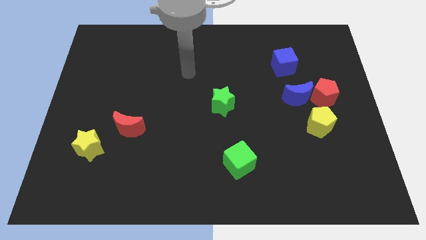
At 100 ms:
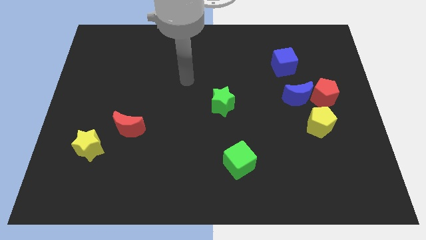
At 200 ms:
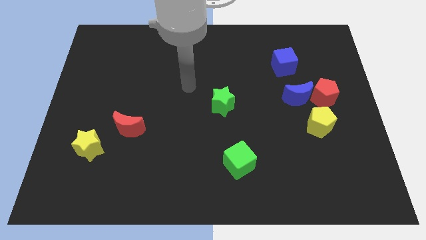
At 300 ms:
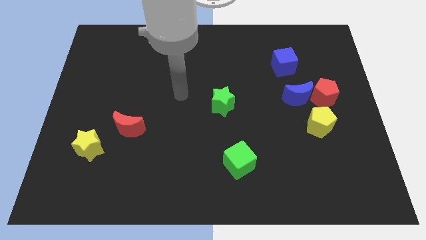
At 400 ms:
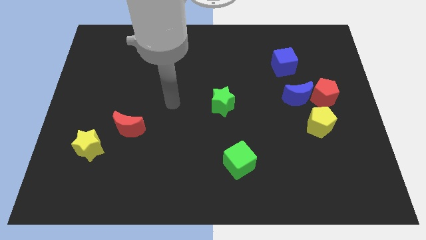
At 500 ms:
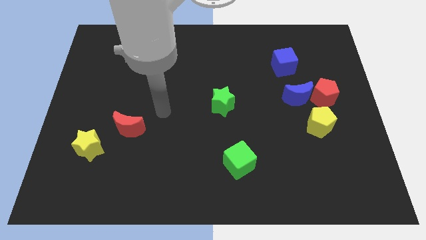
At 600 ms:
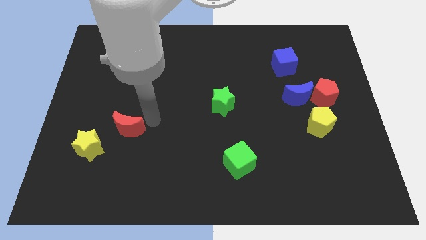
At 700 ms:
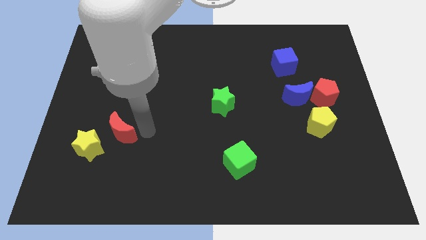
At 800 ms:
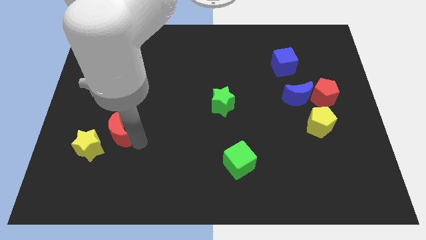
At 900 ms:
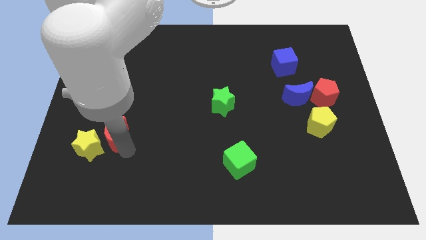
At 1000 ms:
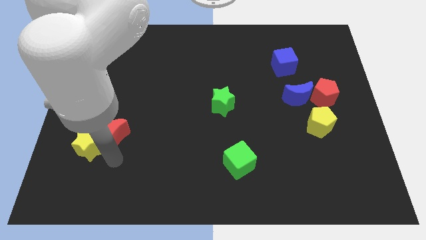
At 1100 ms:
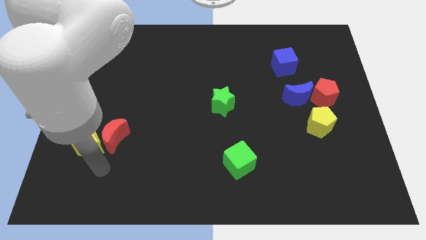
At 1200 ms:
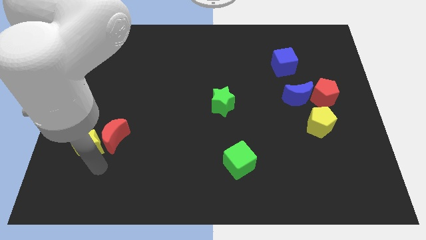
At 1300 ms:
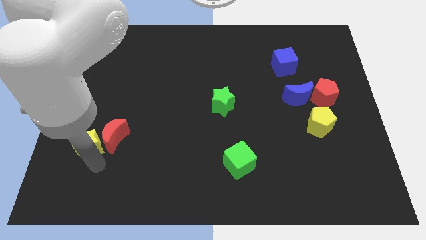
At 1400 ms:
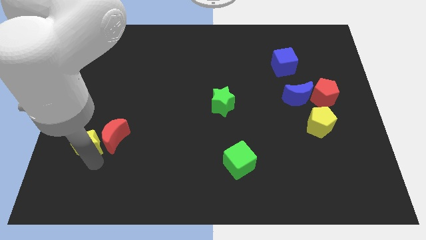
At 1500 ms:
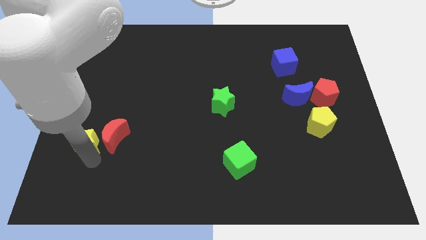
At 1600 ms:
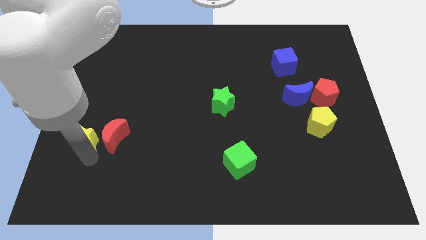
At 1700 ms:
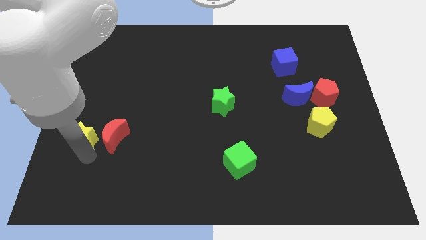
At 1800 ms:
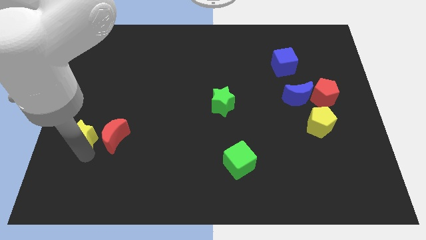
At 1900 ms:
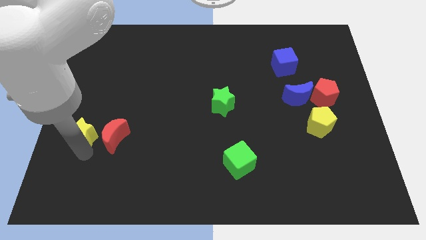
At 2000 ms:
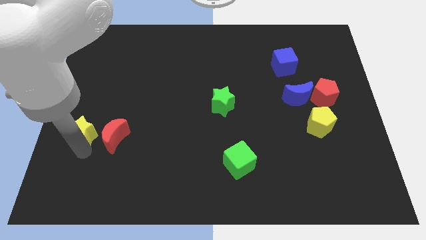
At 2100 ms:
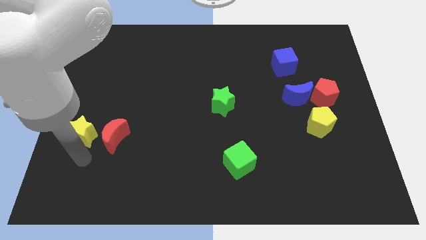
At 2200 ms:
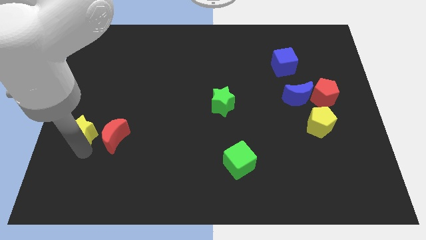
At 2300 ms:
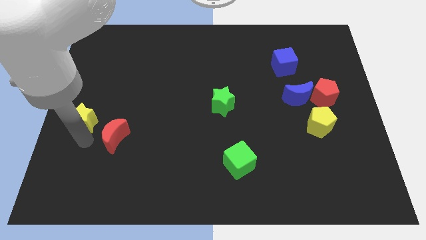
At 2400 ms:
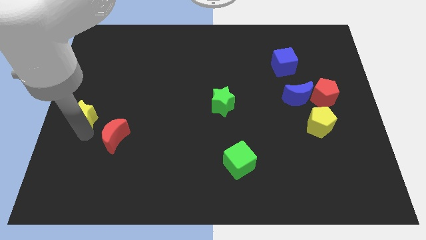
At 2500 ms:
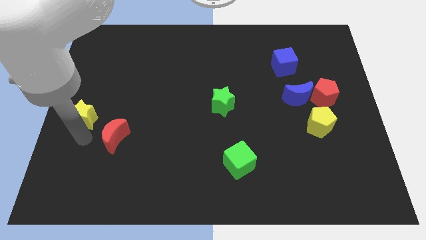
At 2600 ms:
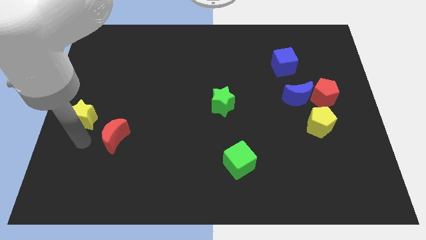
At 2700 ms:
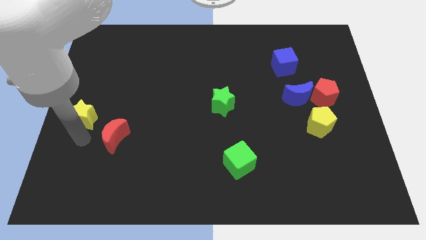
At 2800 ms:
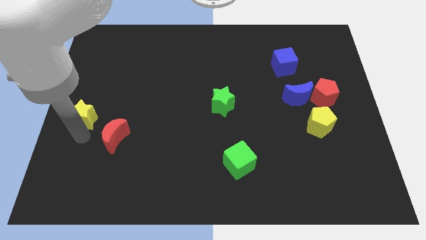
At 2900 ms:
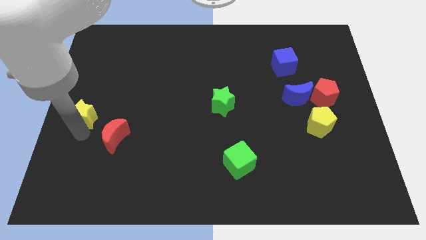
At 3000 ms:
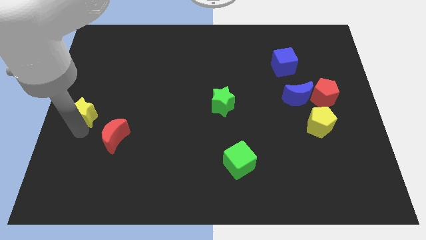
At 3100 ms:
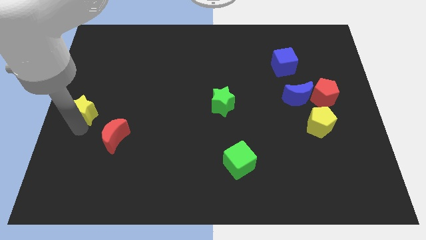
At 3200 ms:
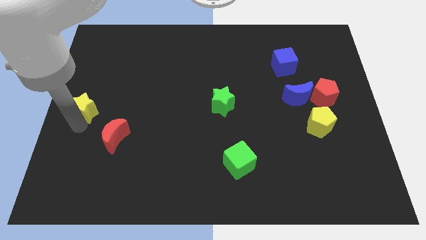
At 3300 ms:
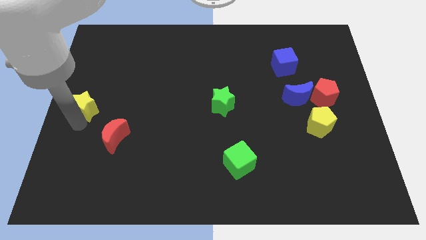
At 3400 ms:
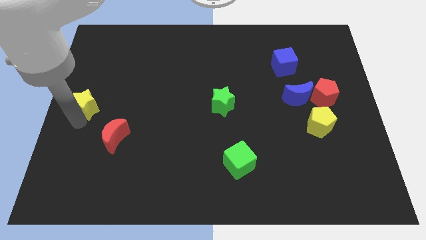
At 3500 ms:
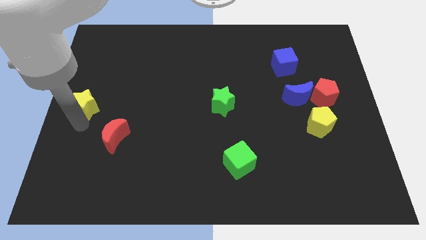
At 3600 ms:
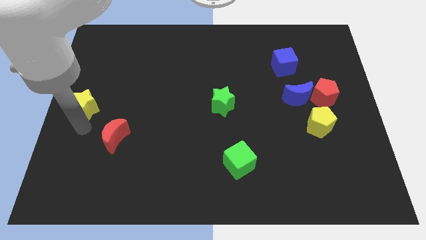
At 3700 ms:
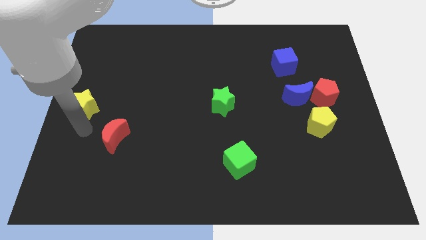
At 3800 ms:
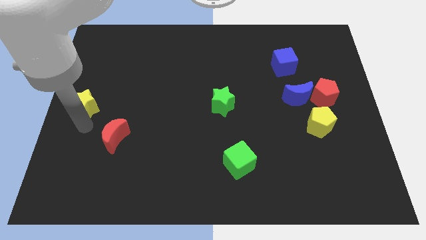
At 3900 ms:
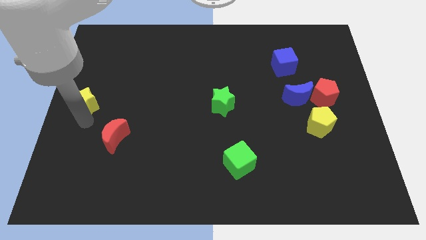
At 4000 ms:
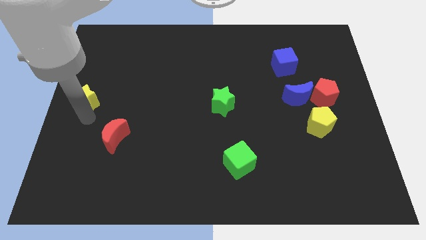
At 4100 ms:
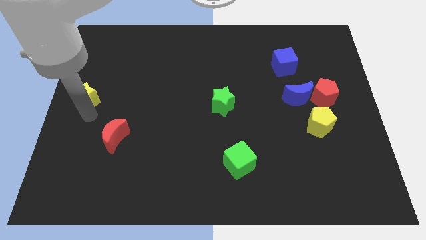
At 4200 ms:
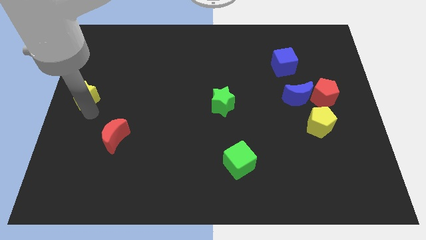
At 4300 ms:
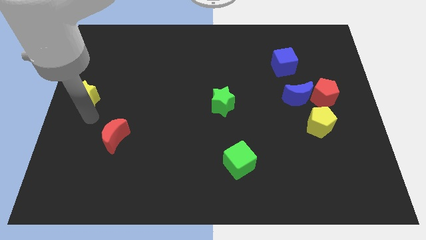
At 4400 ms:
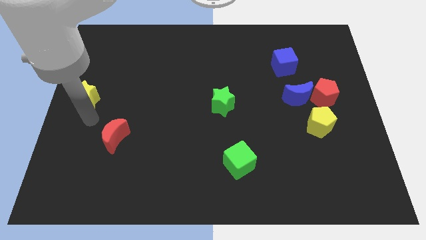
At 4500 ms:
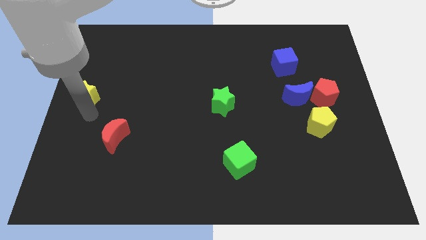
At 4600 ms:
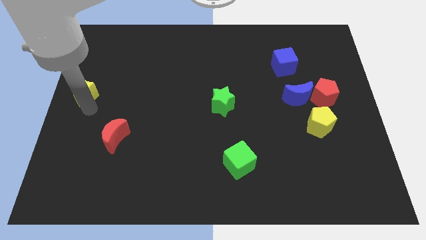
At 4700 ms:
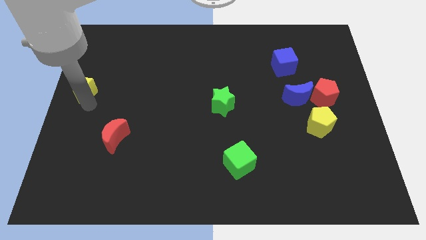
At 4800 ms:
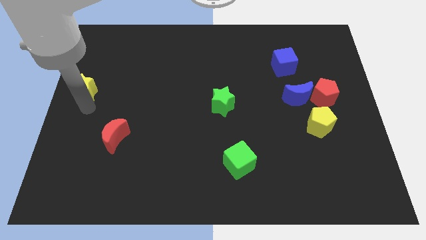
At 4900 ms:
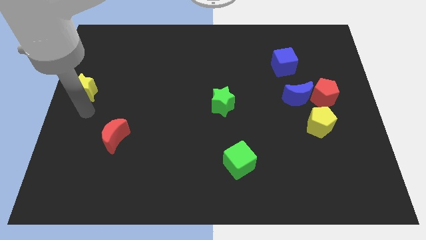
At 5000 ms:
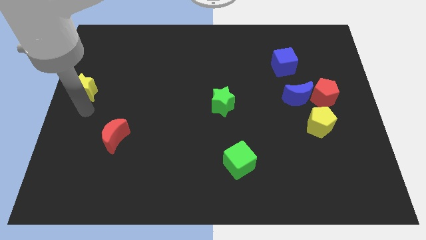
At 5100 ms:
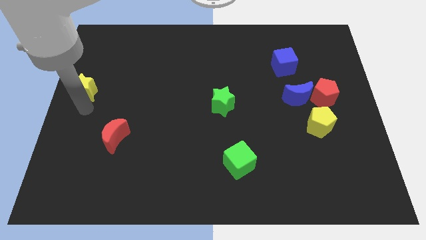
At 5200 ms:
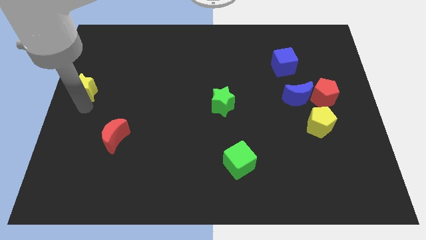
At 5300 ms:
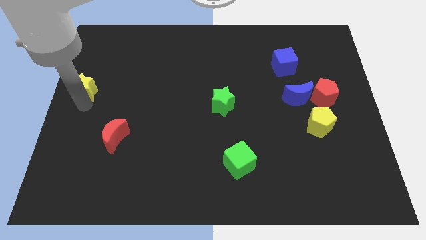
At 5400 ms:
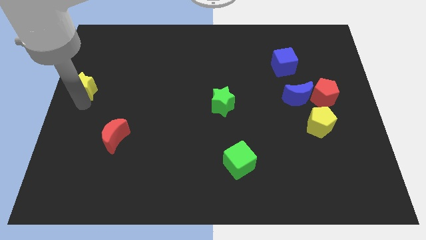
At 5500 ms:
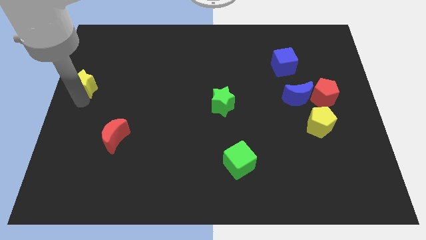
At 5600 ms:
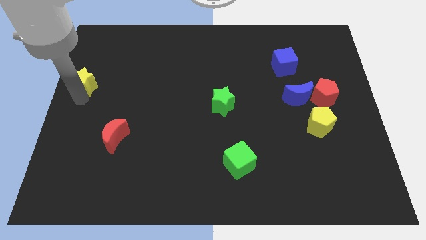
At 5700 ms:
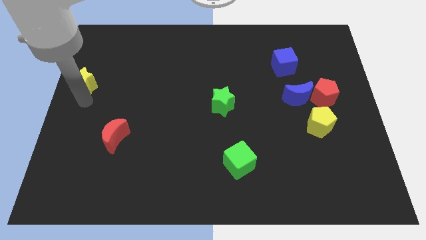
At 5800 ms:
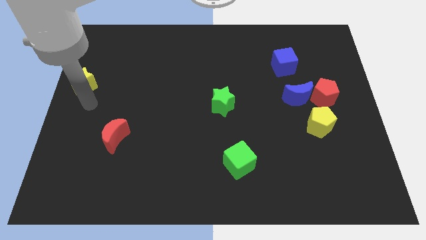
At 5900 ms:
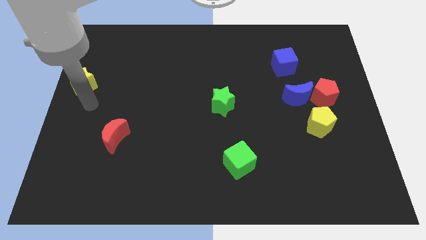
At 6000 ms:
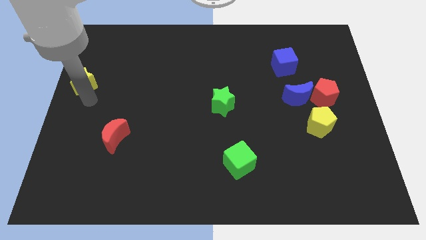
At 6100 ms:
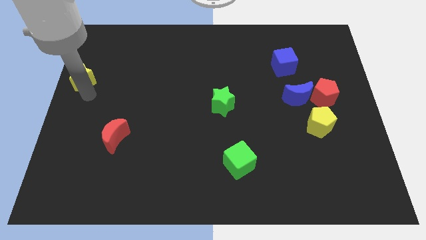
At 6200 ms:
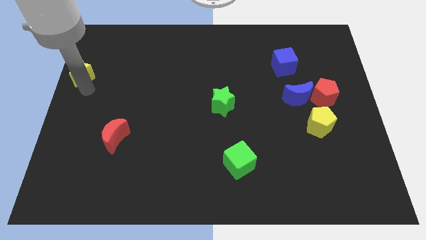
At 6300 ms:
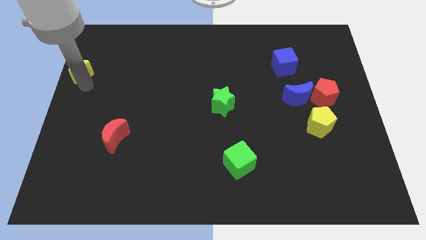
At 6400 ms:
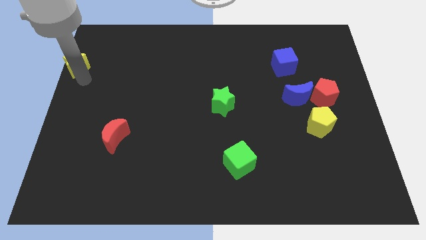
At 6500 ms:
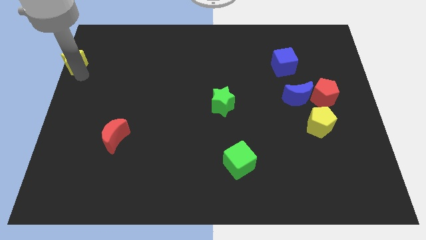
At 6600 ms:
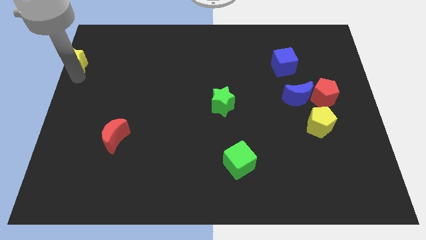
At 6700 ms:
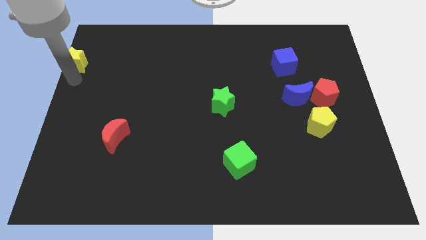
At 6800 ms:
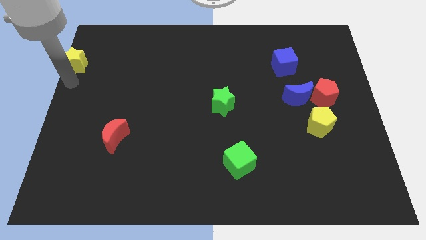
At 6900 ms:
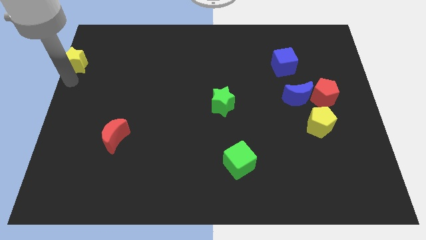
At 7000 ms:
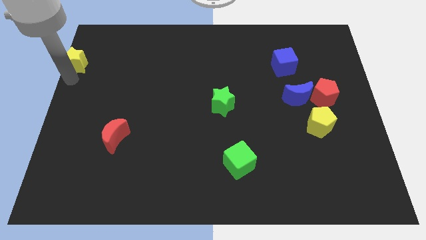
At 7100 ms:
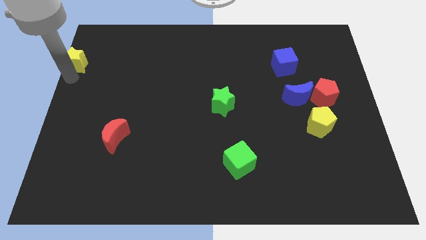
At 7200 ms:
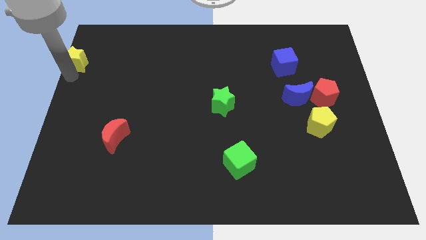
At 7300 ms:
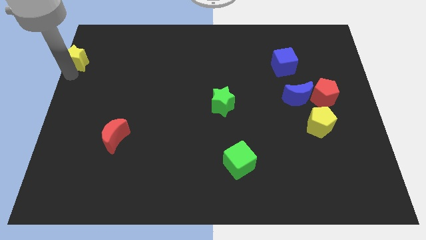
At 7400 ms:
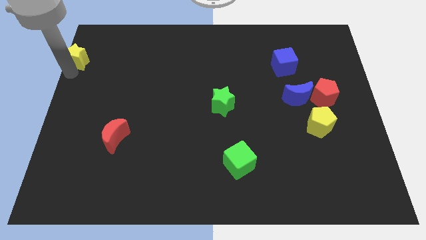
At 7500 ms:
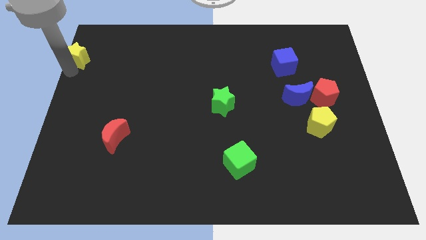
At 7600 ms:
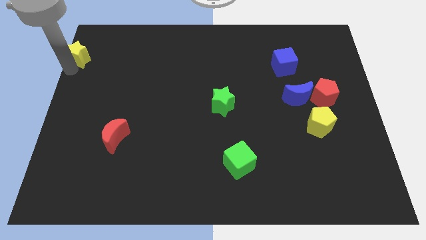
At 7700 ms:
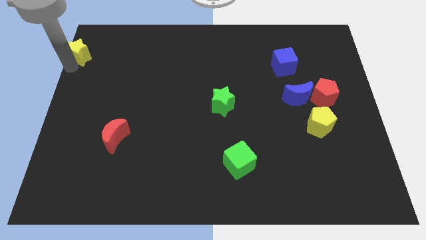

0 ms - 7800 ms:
push the yellow star to the top left
